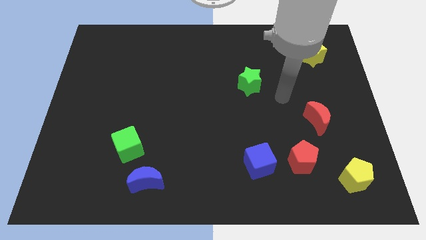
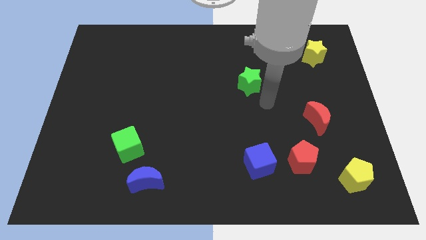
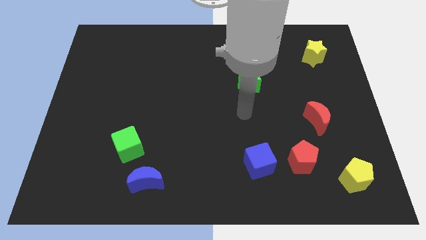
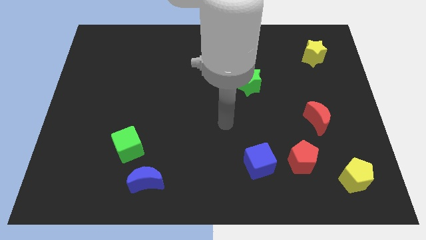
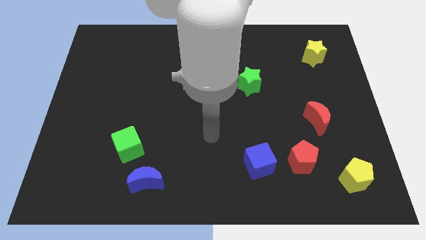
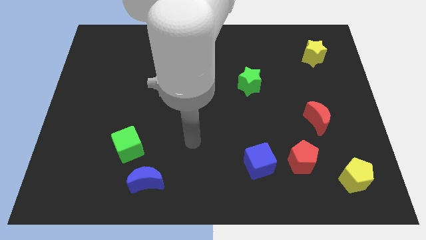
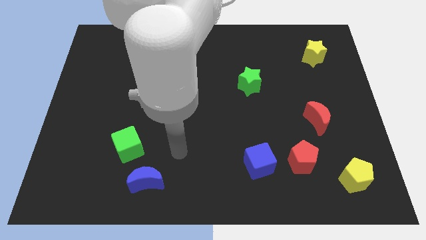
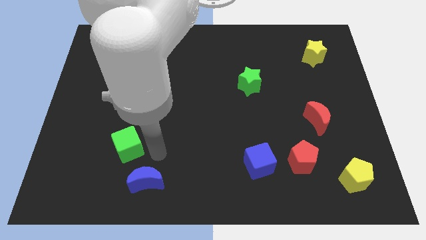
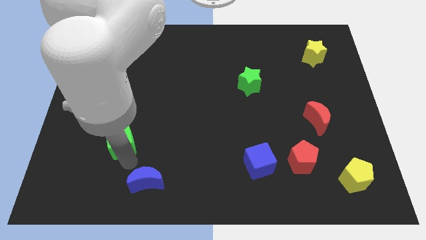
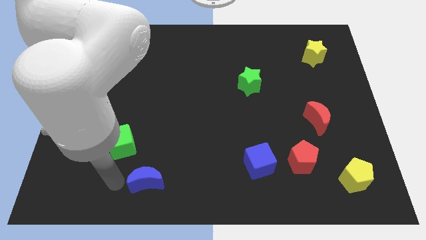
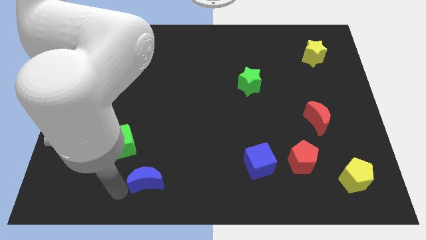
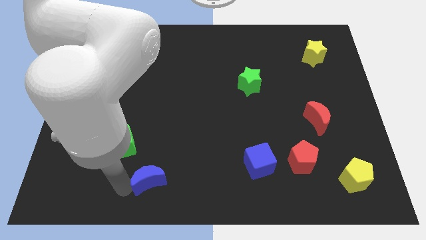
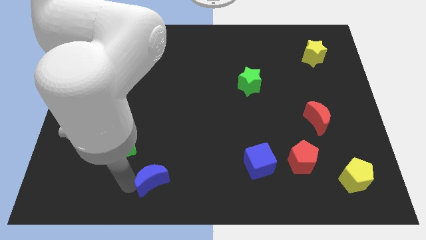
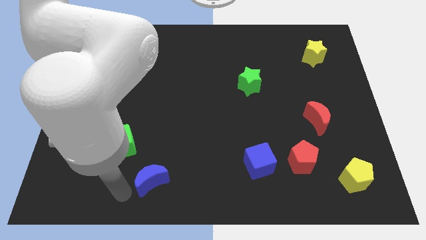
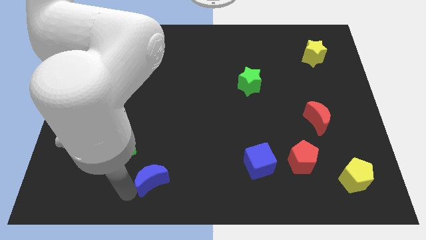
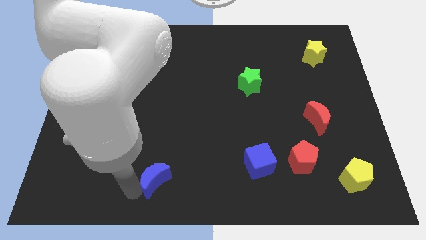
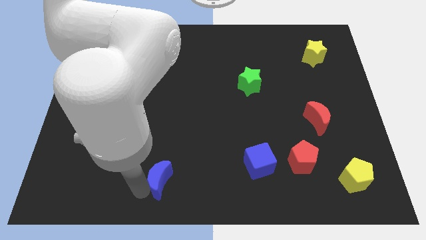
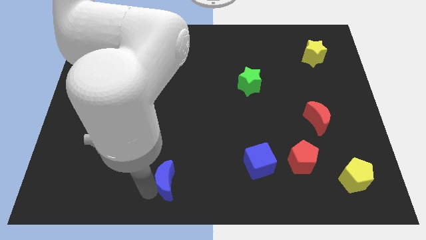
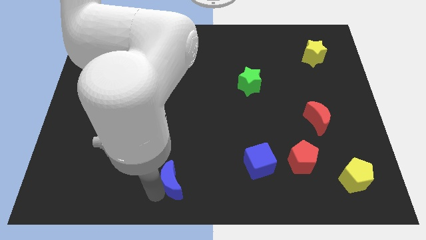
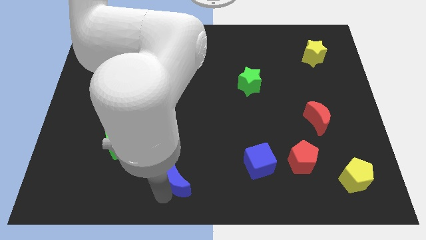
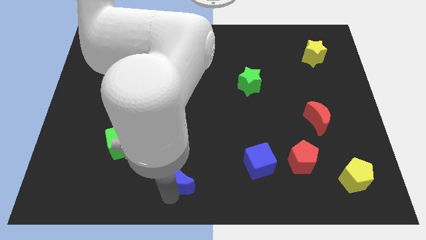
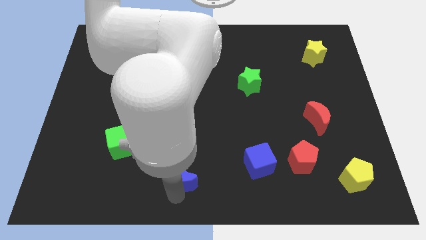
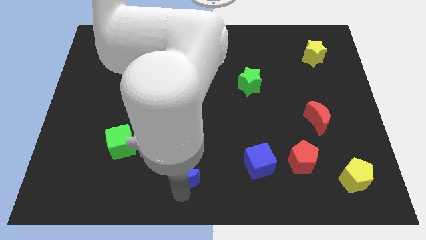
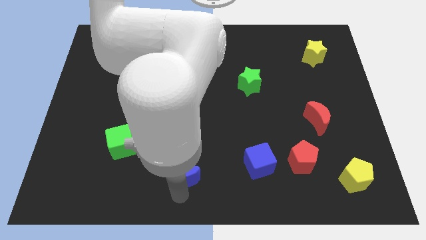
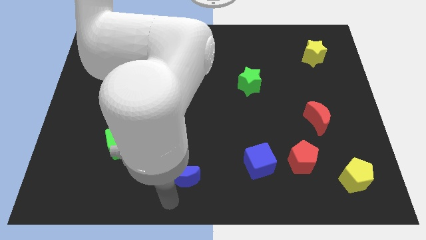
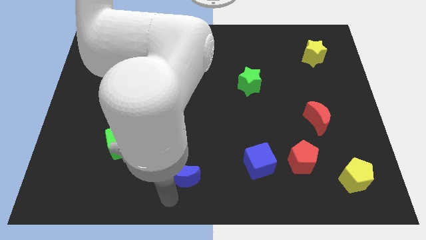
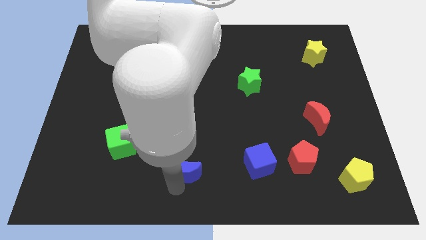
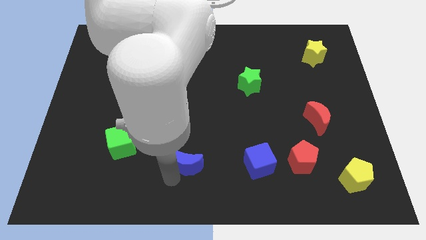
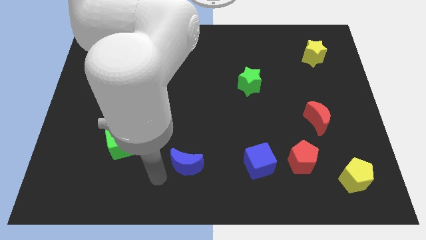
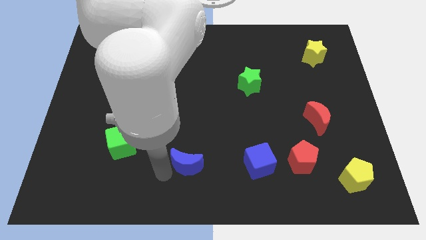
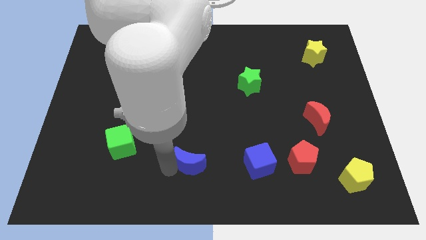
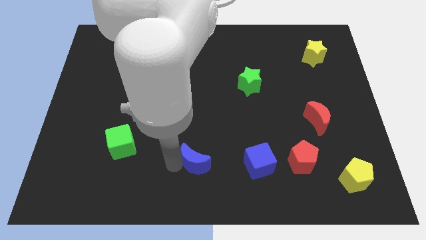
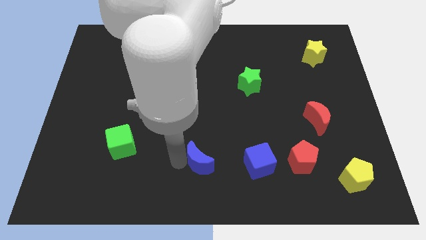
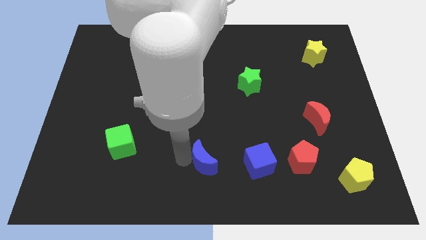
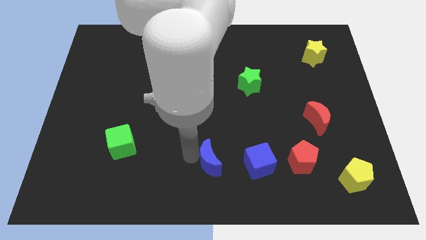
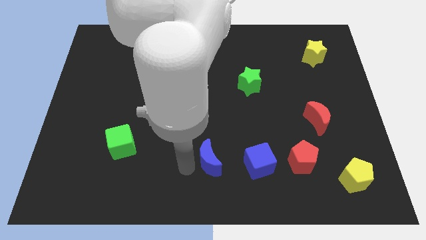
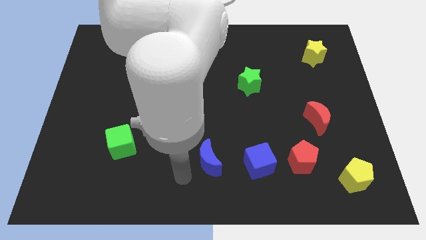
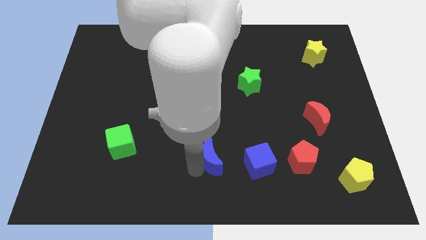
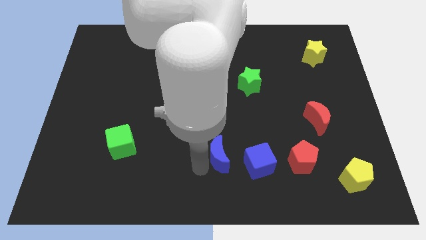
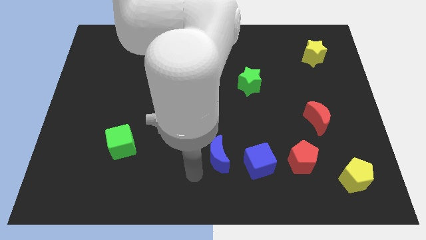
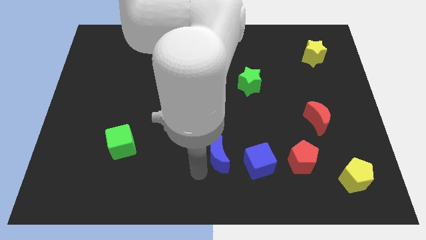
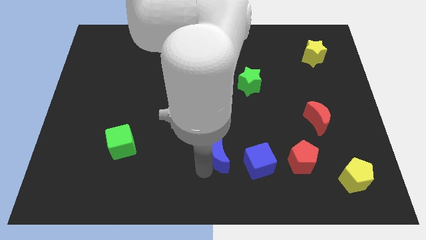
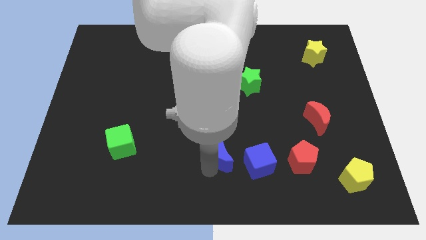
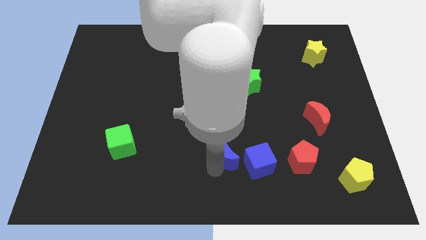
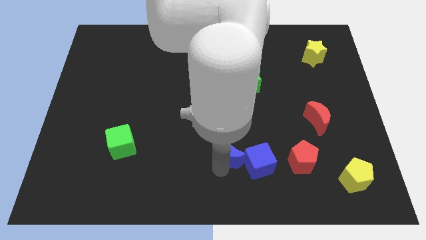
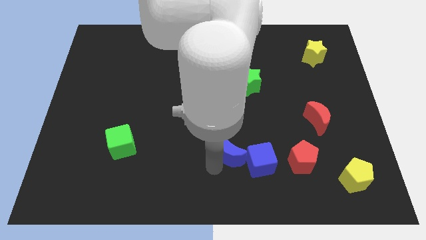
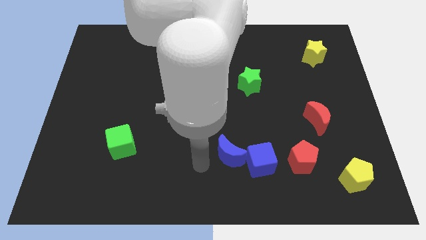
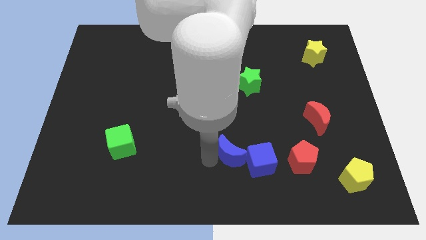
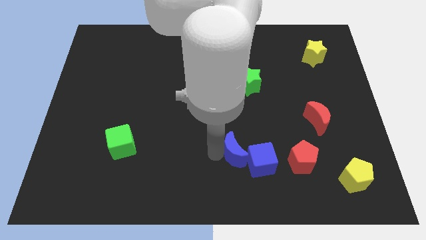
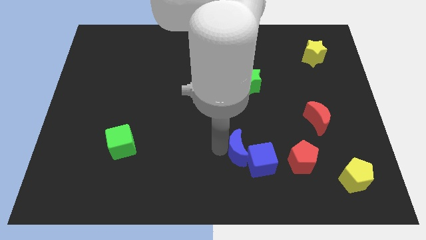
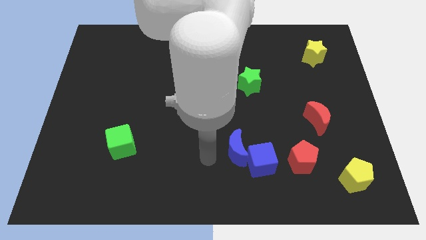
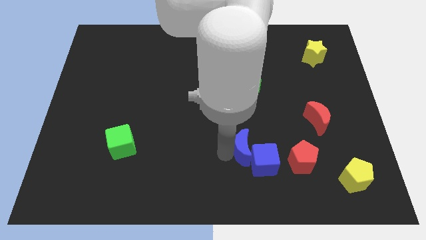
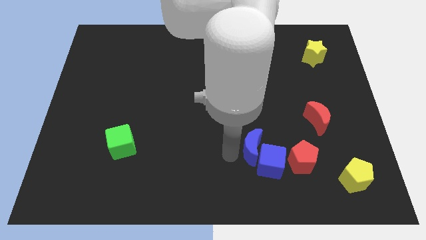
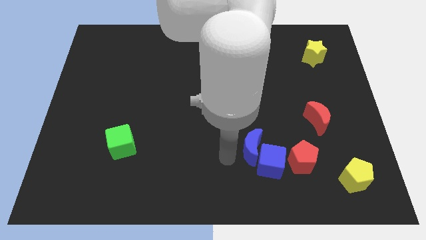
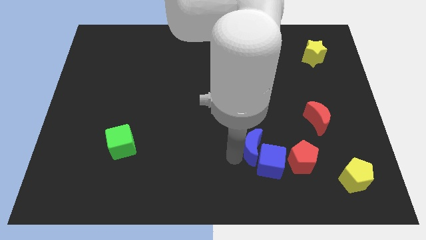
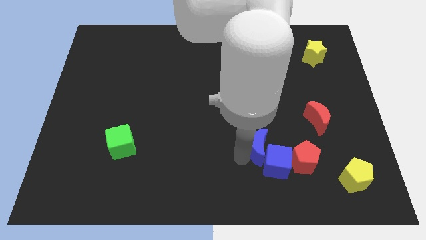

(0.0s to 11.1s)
move the blue moon diagonally up and to the left of the red pentagon

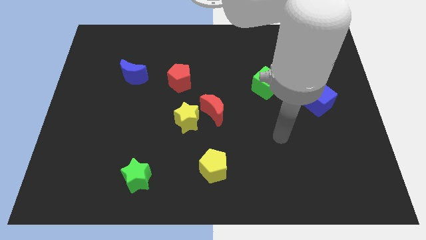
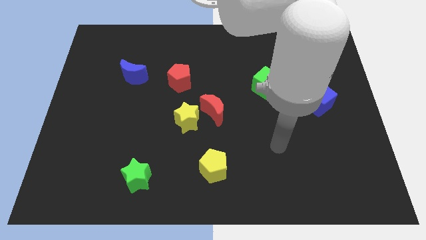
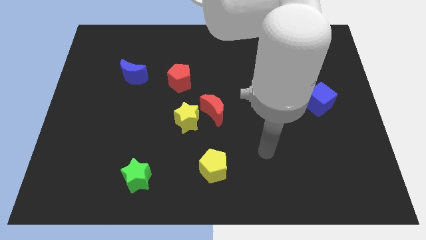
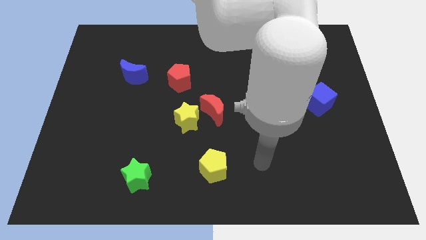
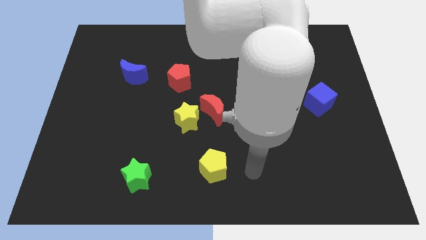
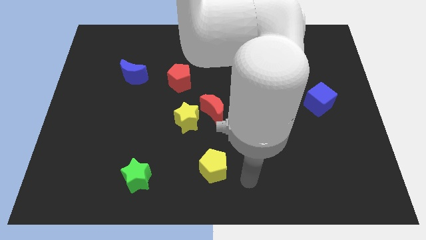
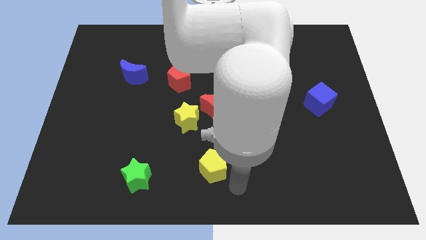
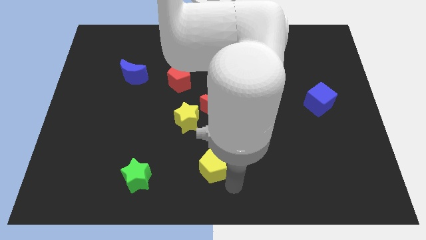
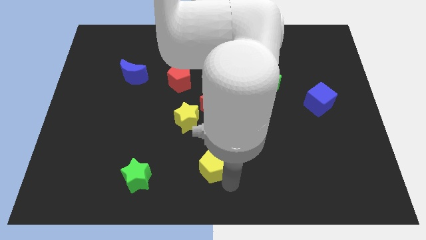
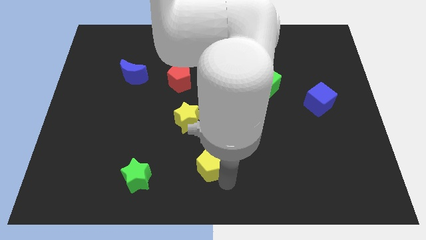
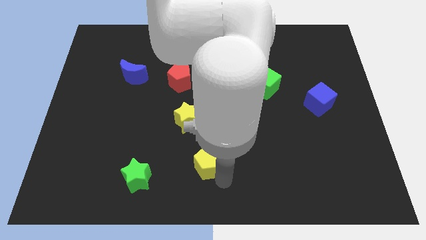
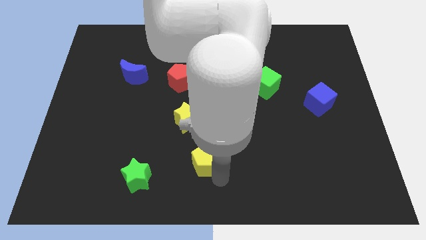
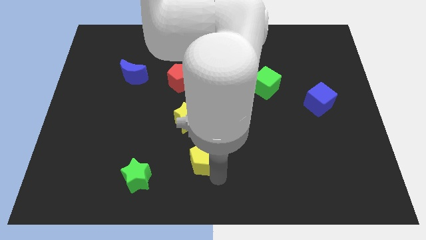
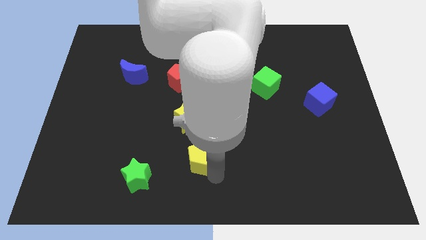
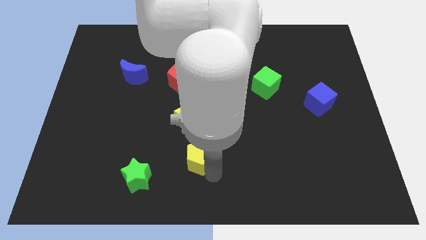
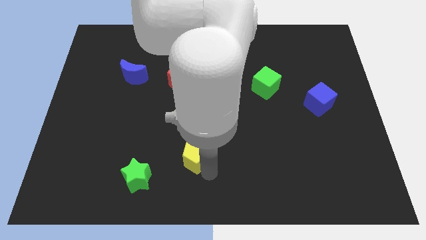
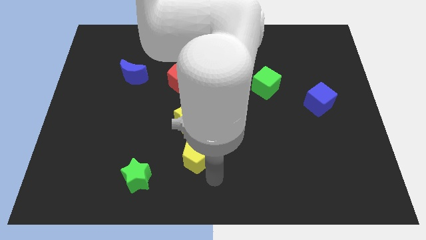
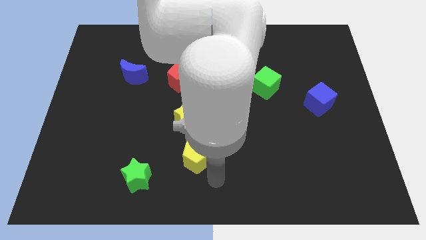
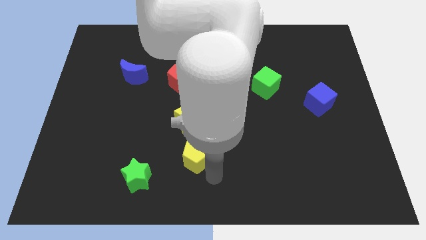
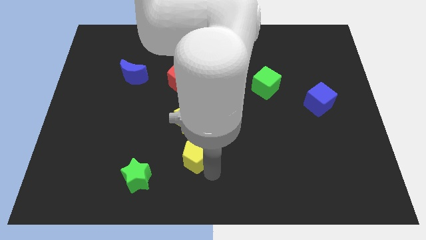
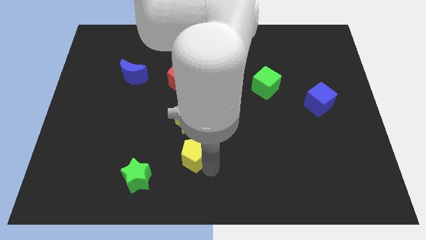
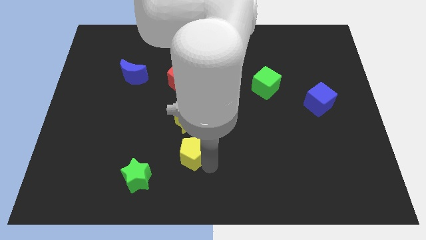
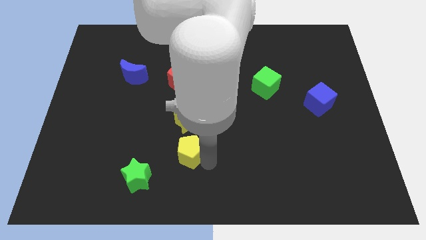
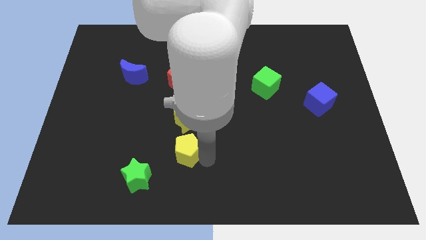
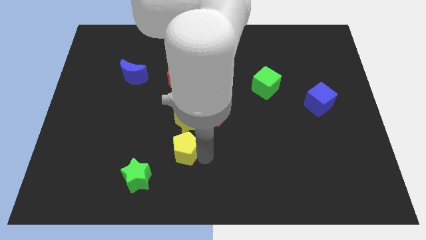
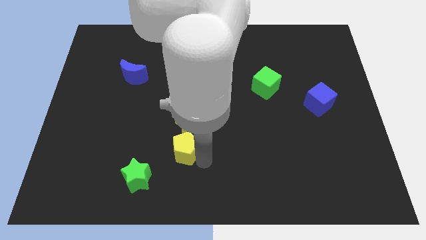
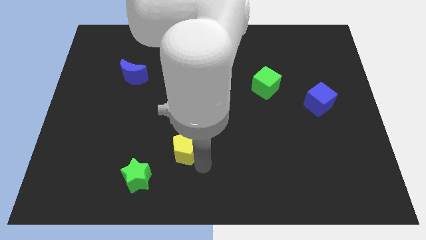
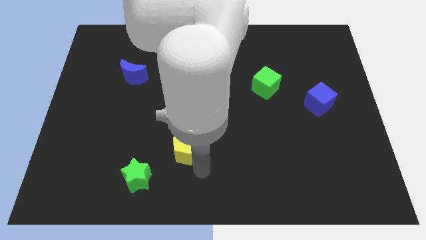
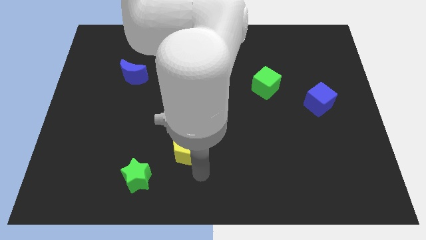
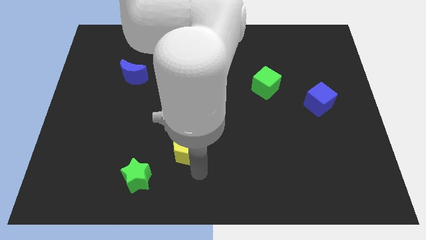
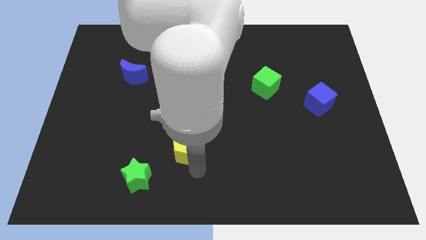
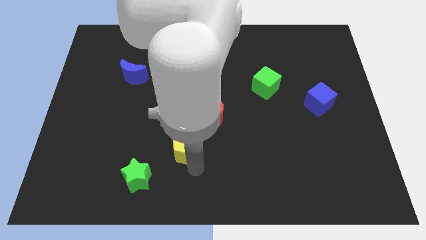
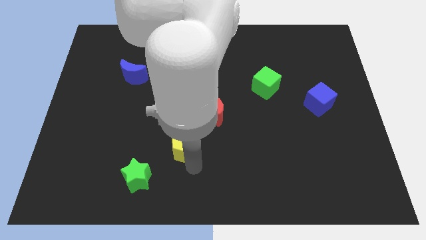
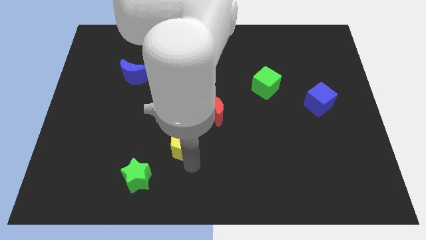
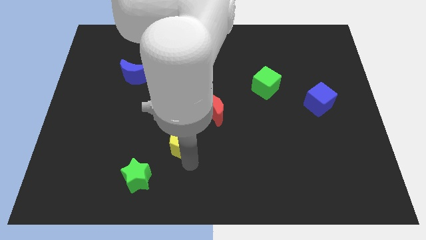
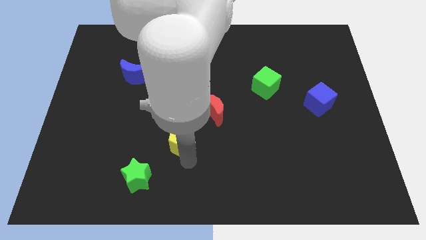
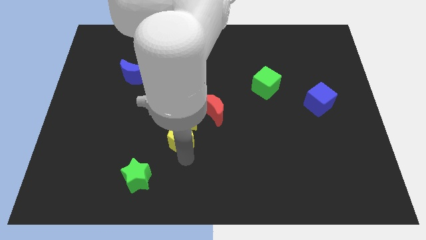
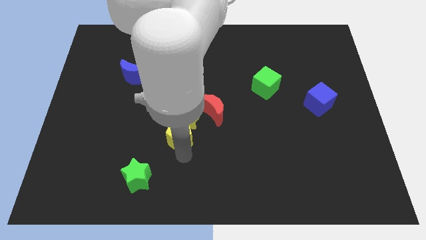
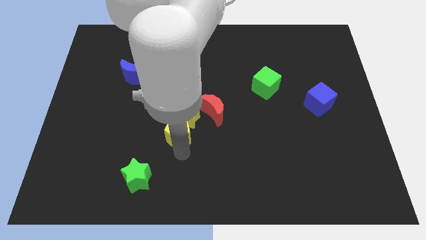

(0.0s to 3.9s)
slide the yellow pentagon to the bottom of the red pentagon
